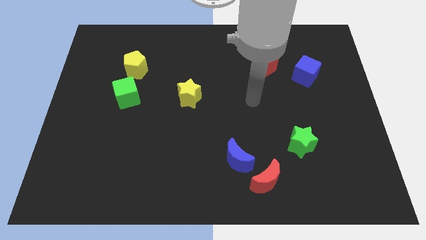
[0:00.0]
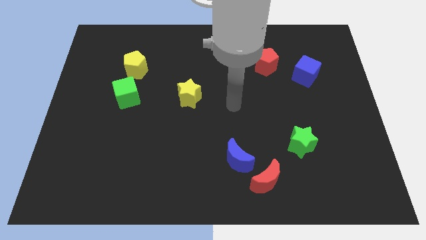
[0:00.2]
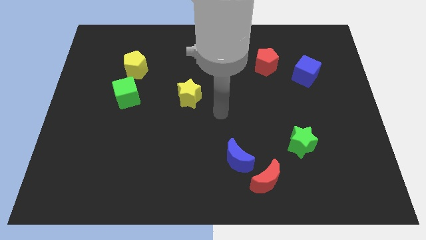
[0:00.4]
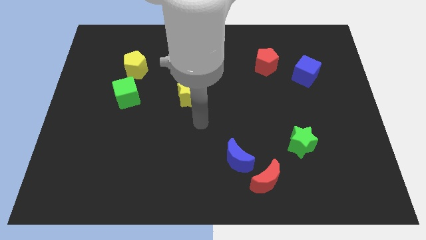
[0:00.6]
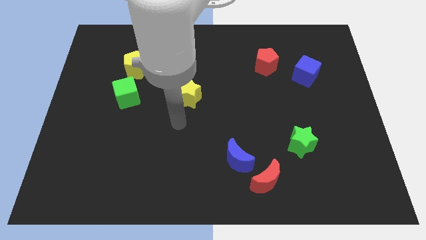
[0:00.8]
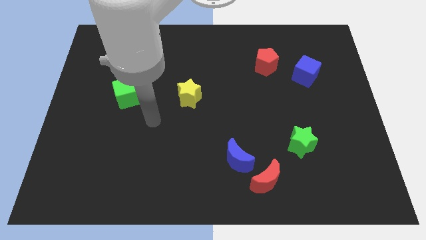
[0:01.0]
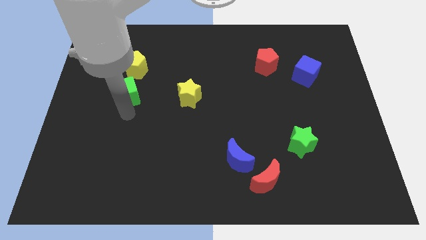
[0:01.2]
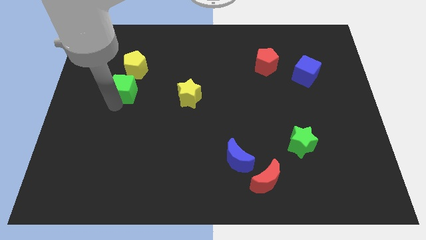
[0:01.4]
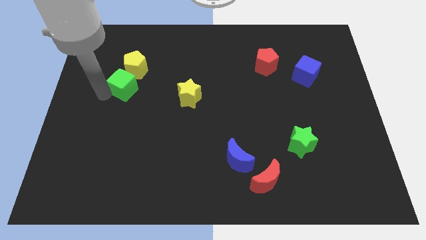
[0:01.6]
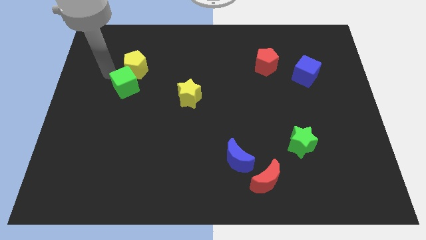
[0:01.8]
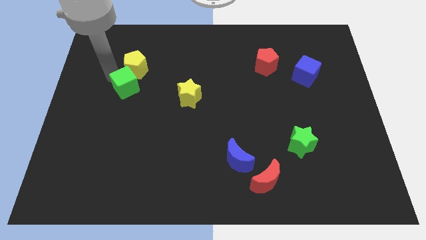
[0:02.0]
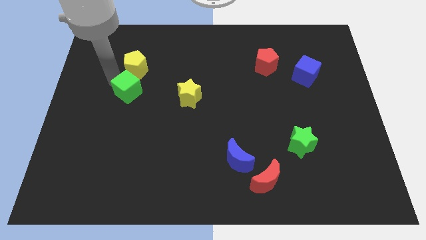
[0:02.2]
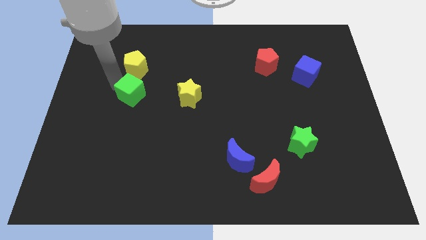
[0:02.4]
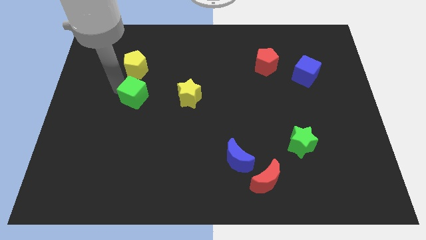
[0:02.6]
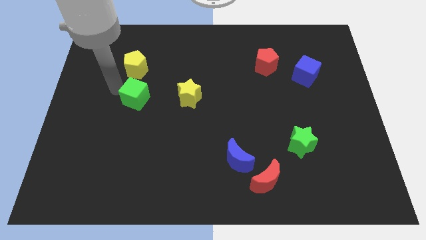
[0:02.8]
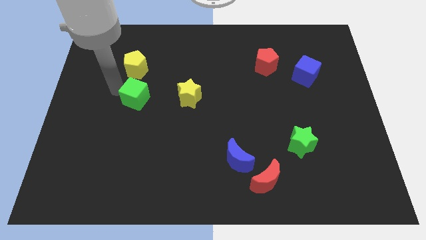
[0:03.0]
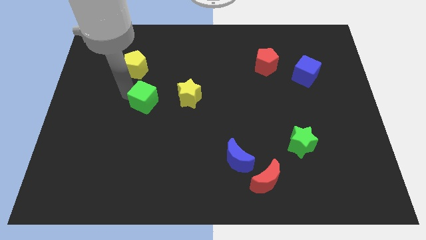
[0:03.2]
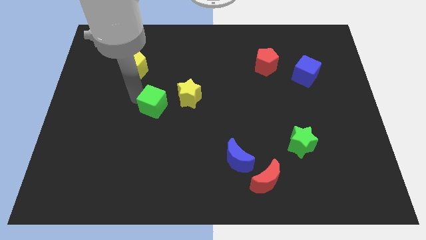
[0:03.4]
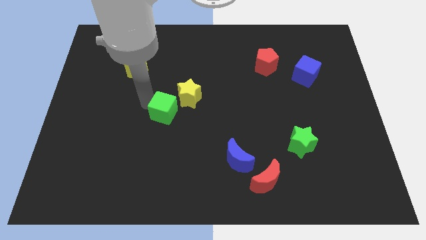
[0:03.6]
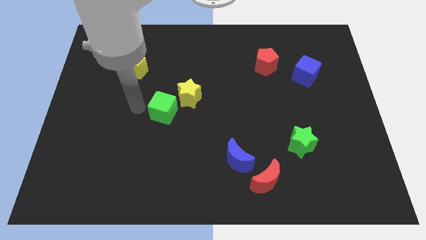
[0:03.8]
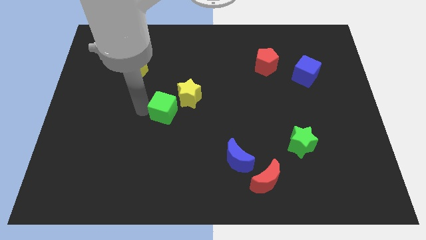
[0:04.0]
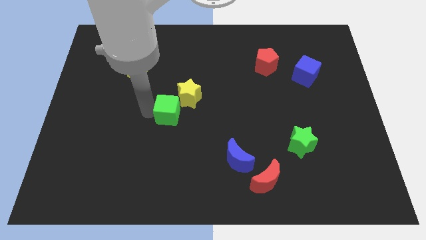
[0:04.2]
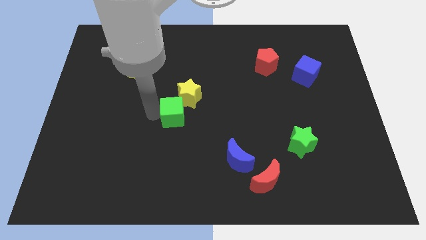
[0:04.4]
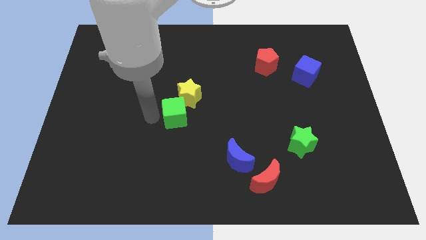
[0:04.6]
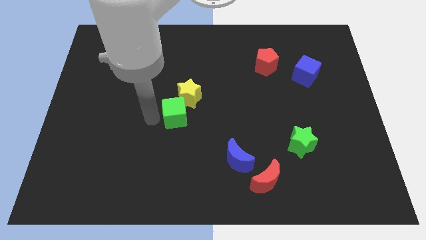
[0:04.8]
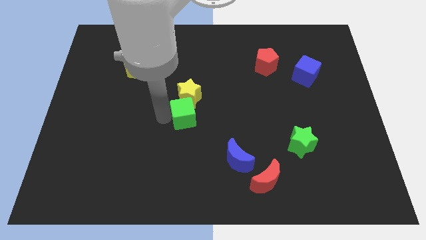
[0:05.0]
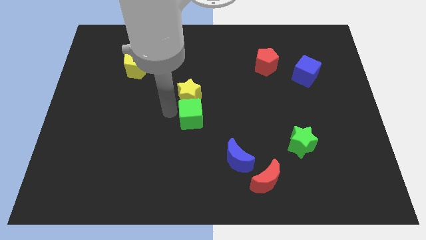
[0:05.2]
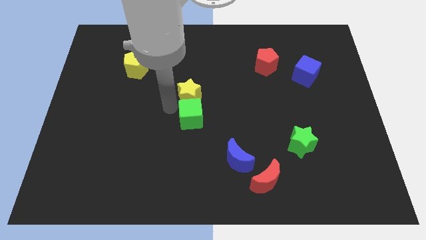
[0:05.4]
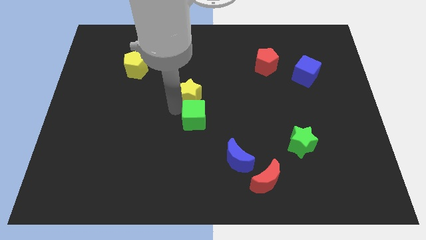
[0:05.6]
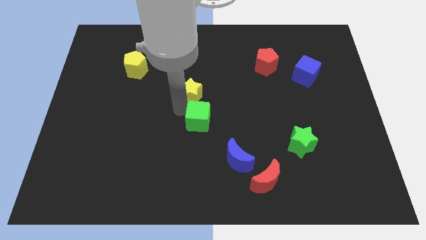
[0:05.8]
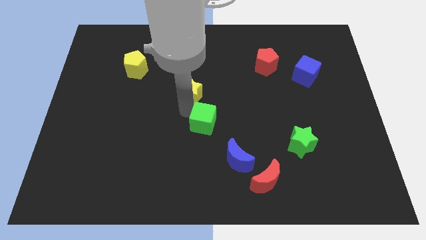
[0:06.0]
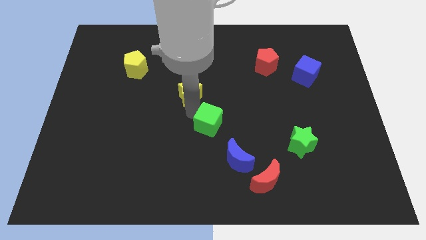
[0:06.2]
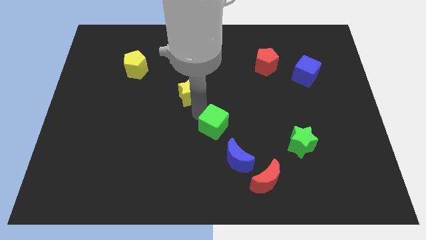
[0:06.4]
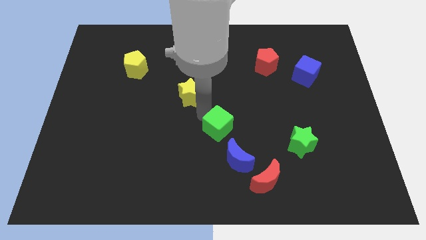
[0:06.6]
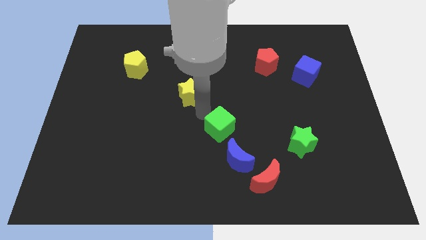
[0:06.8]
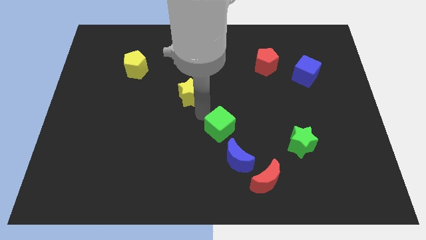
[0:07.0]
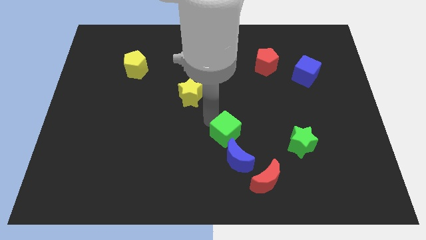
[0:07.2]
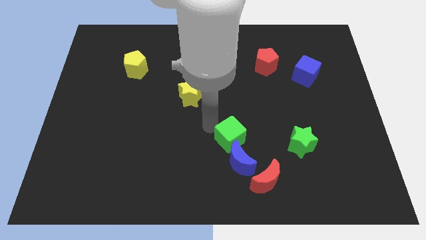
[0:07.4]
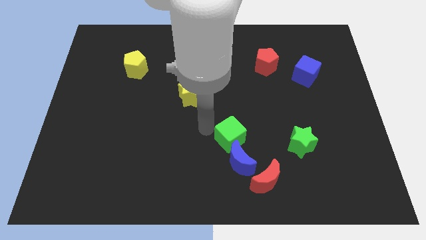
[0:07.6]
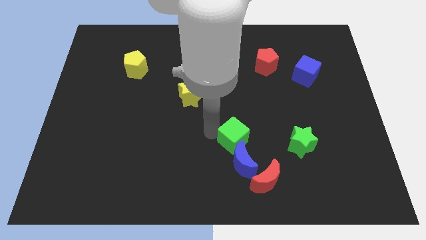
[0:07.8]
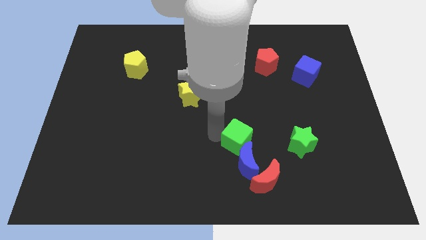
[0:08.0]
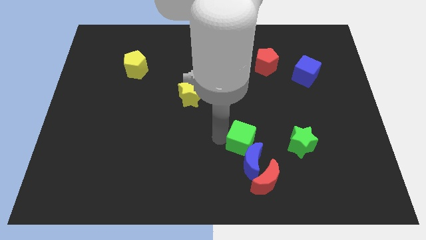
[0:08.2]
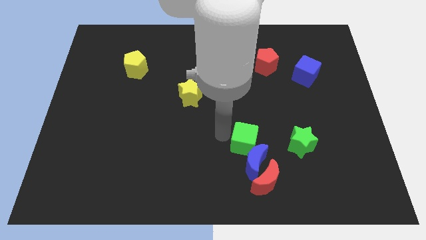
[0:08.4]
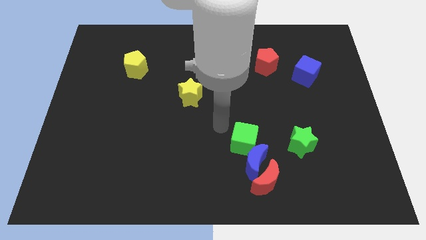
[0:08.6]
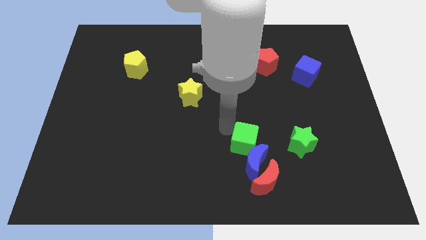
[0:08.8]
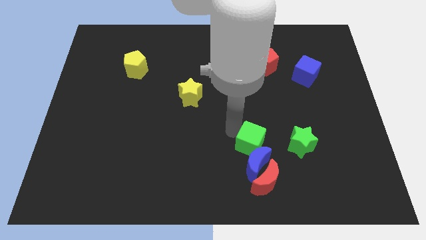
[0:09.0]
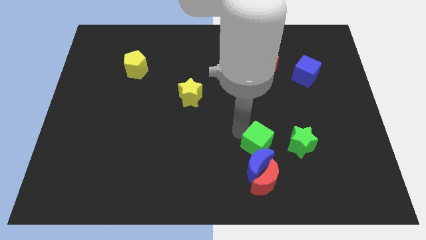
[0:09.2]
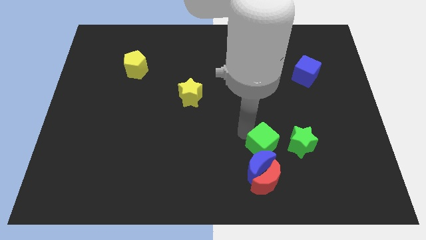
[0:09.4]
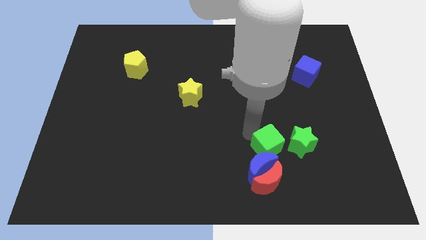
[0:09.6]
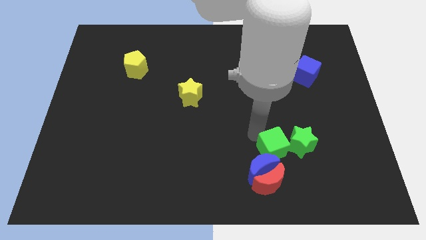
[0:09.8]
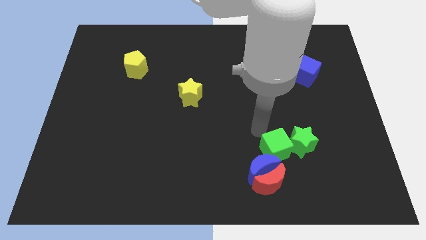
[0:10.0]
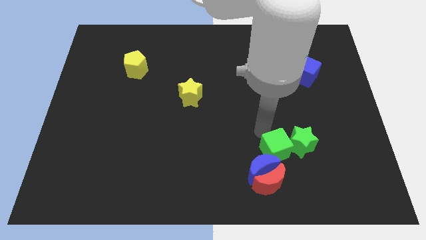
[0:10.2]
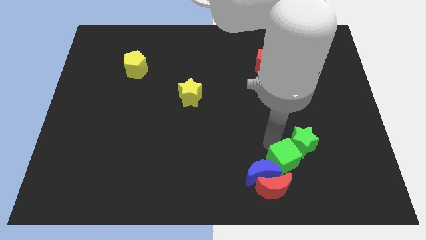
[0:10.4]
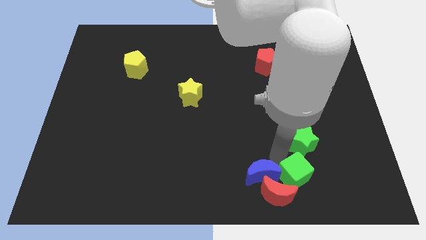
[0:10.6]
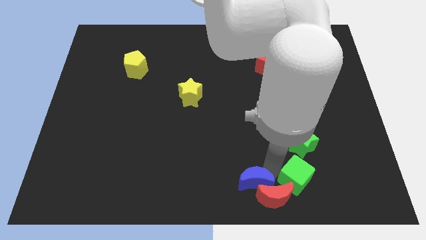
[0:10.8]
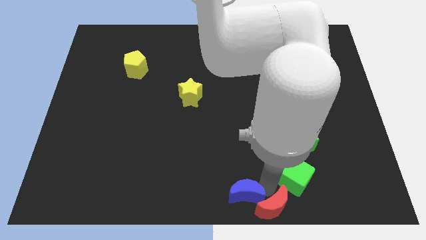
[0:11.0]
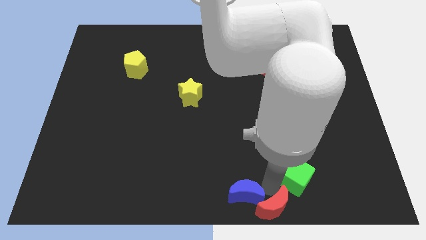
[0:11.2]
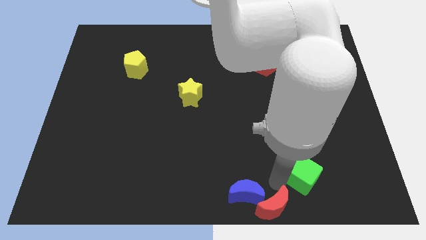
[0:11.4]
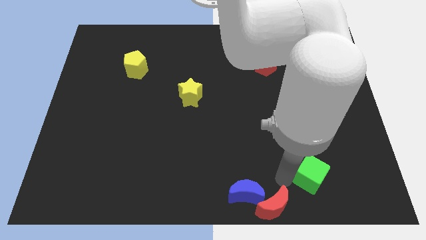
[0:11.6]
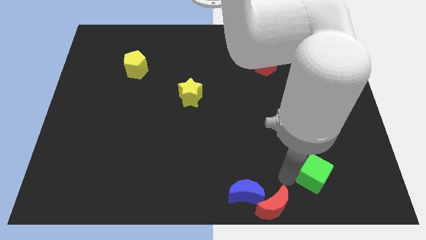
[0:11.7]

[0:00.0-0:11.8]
slide the green cube diagonally down and to the right of the green star

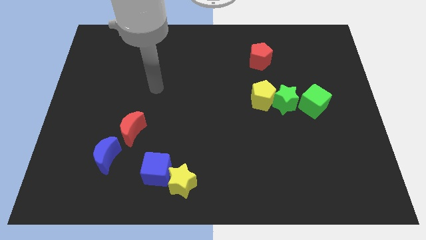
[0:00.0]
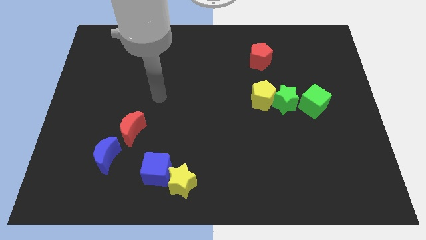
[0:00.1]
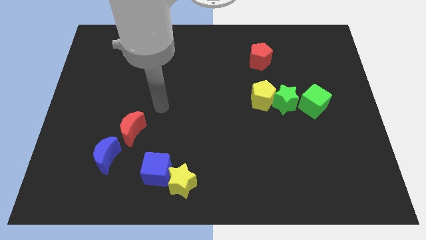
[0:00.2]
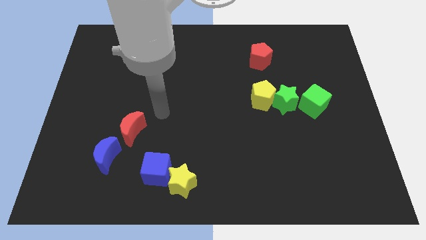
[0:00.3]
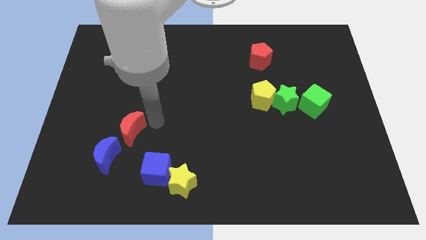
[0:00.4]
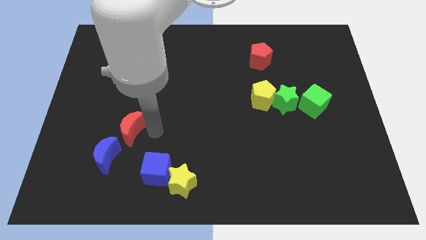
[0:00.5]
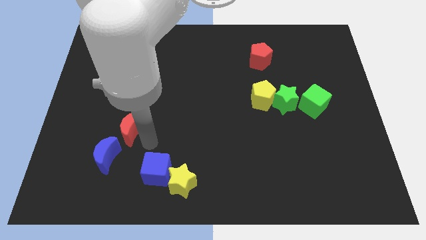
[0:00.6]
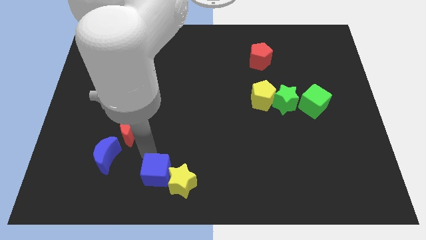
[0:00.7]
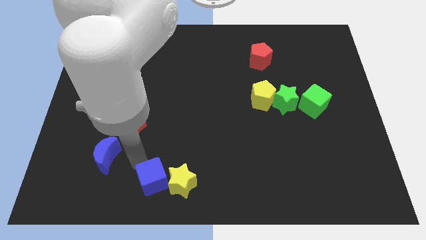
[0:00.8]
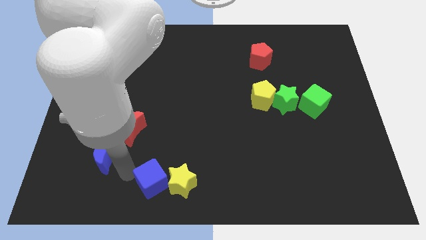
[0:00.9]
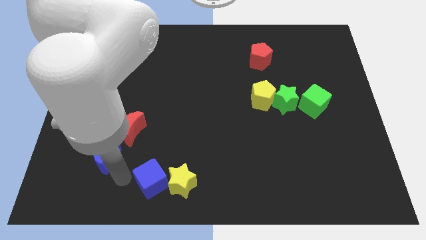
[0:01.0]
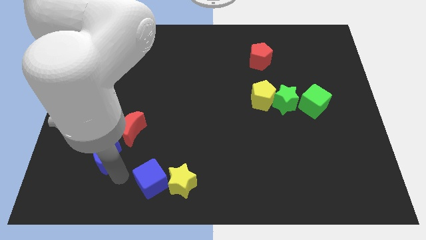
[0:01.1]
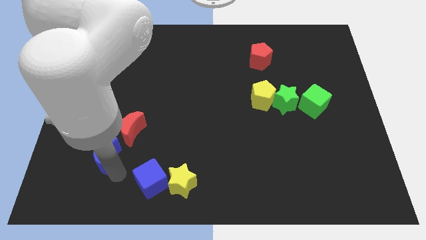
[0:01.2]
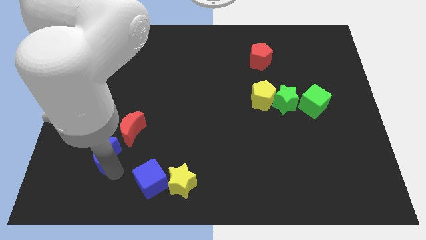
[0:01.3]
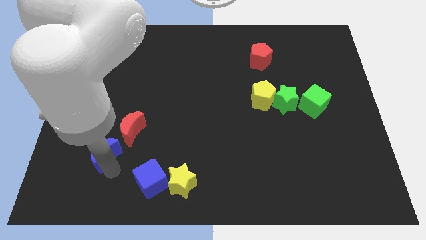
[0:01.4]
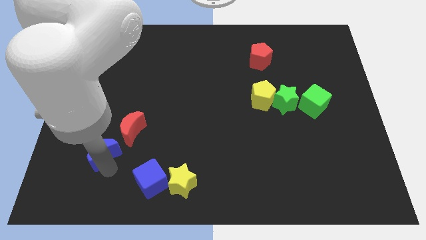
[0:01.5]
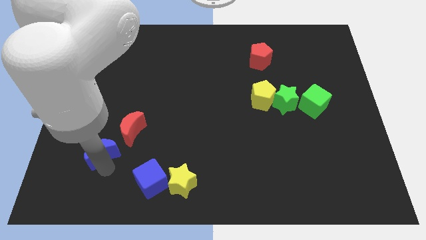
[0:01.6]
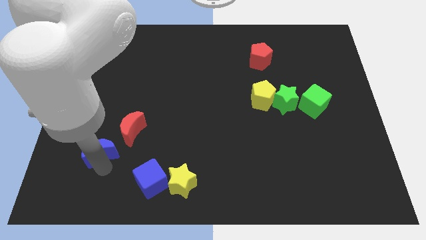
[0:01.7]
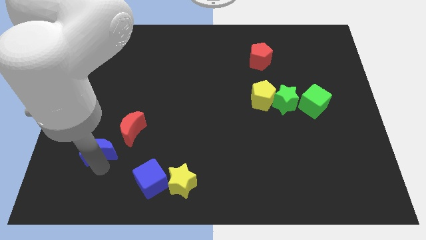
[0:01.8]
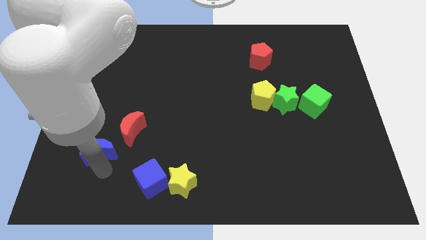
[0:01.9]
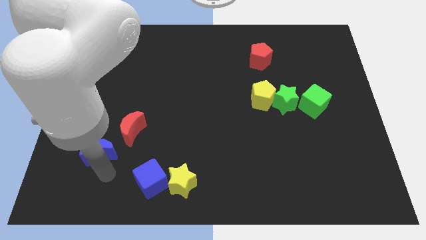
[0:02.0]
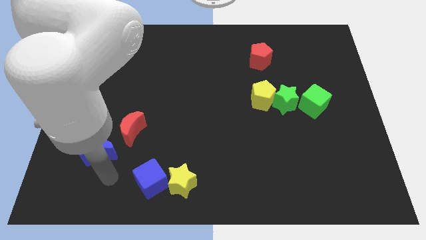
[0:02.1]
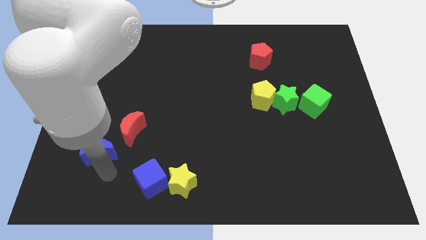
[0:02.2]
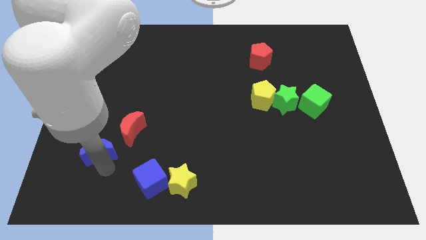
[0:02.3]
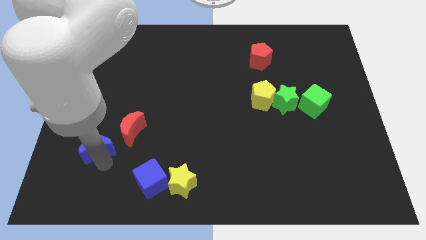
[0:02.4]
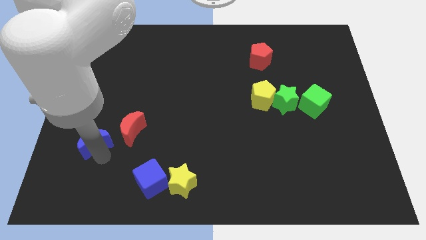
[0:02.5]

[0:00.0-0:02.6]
put the blue moon left of the red moon
